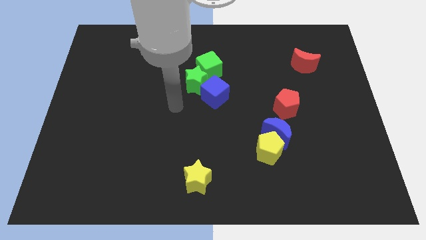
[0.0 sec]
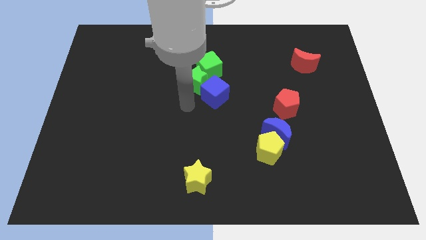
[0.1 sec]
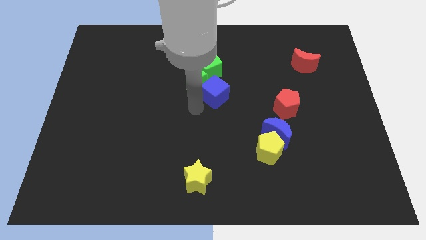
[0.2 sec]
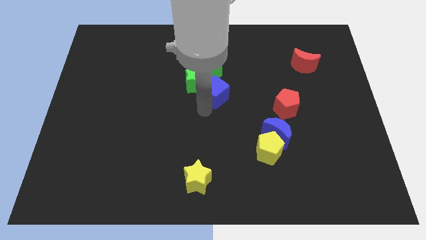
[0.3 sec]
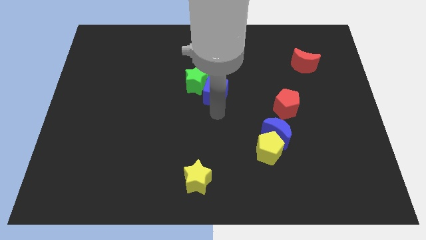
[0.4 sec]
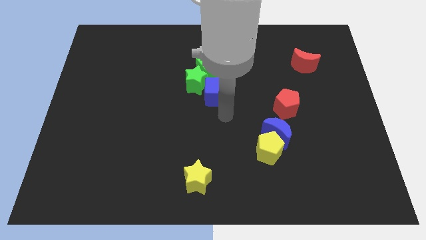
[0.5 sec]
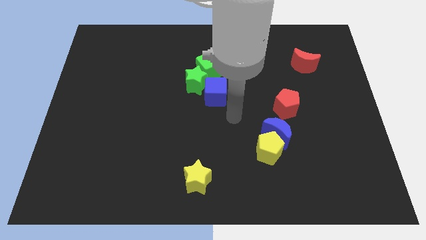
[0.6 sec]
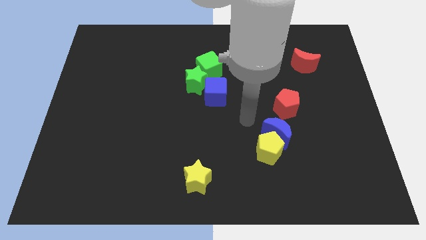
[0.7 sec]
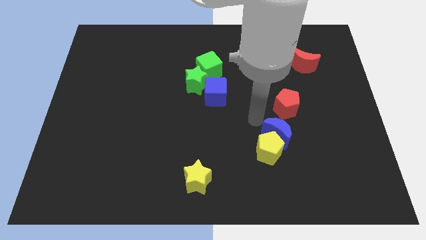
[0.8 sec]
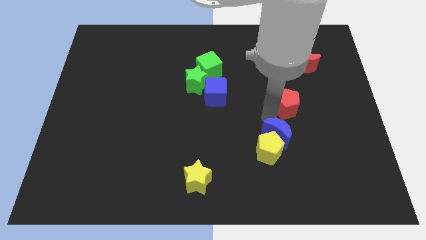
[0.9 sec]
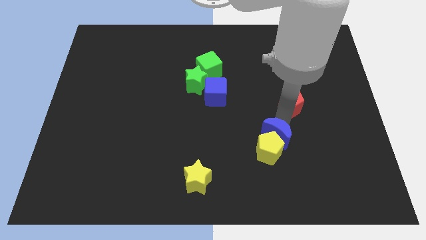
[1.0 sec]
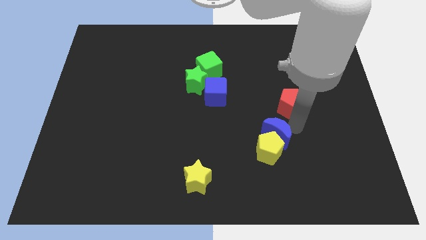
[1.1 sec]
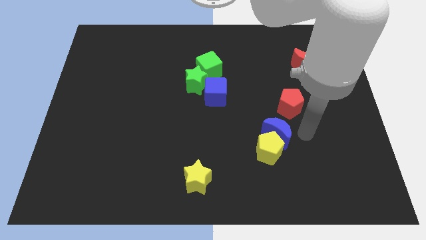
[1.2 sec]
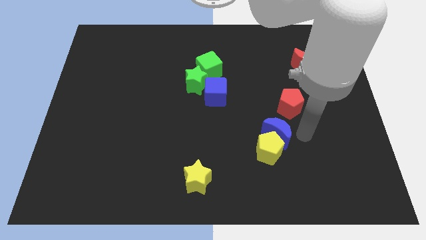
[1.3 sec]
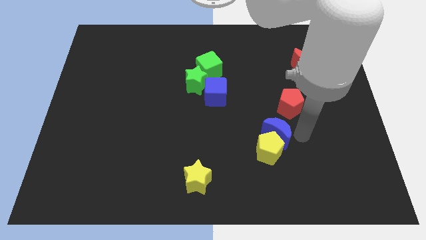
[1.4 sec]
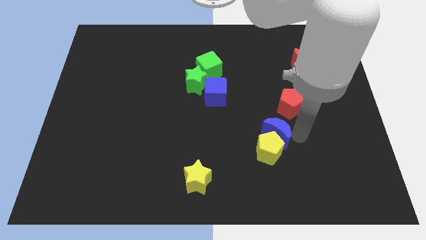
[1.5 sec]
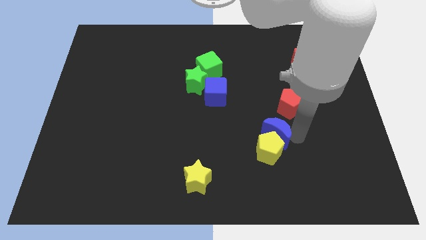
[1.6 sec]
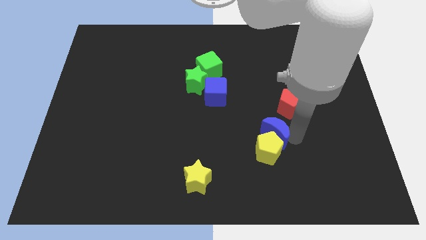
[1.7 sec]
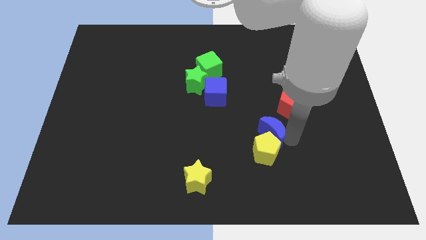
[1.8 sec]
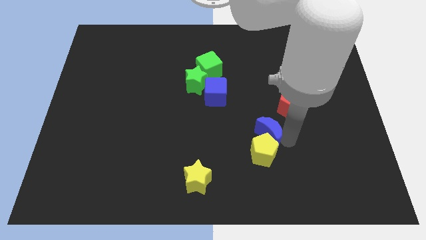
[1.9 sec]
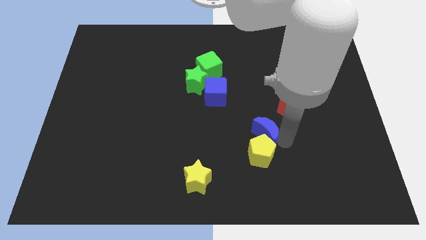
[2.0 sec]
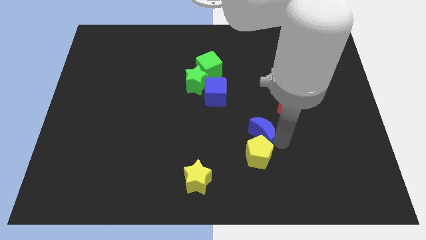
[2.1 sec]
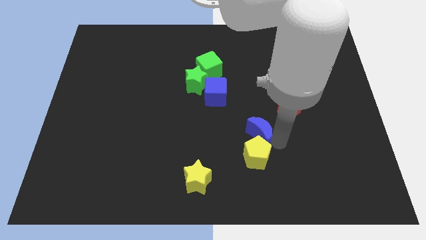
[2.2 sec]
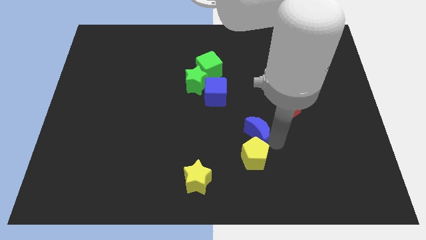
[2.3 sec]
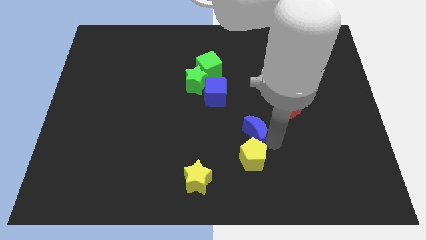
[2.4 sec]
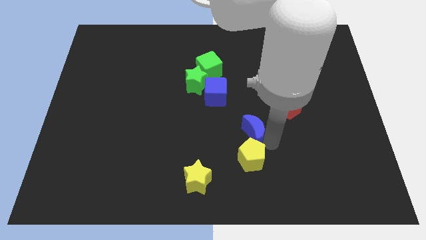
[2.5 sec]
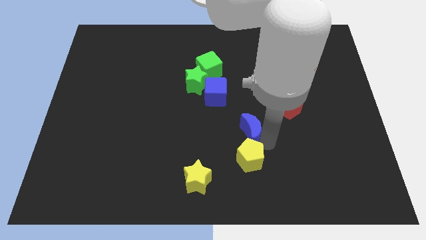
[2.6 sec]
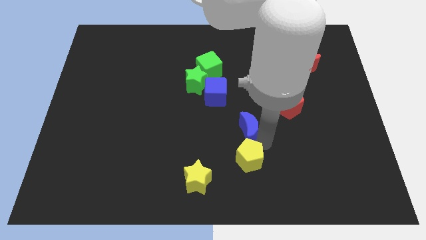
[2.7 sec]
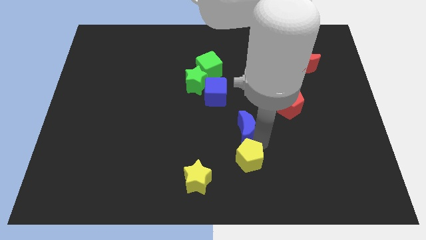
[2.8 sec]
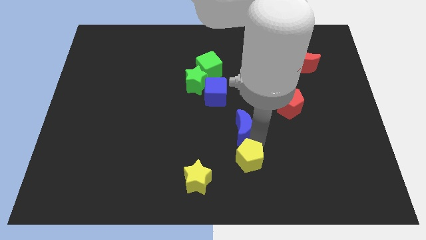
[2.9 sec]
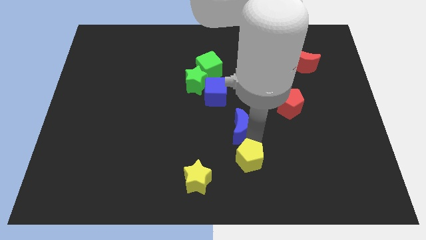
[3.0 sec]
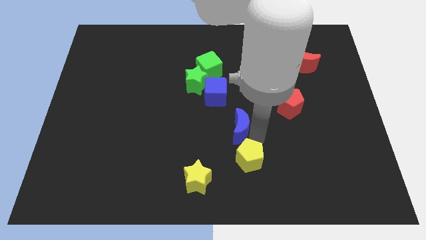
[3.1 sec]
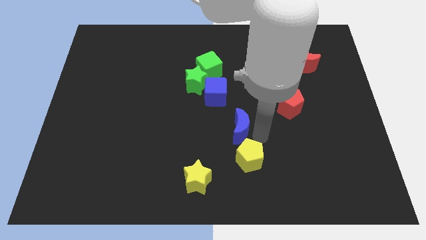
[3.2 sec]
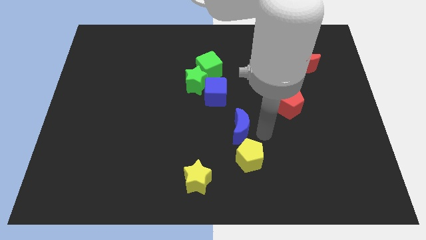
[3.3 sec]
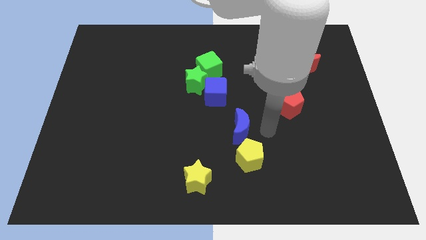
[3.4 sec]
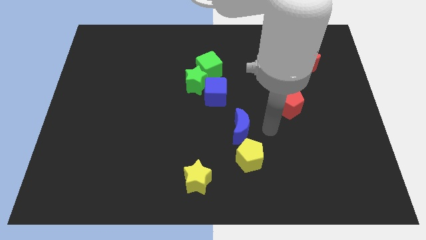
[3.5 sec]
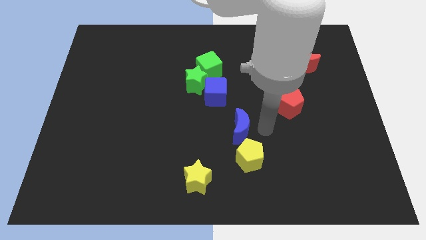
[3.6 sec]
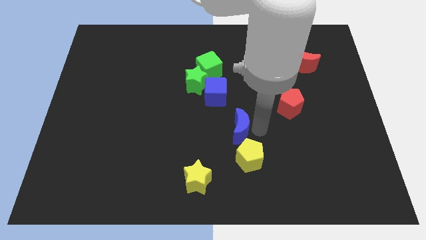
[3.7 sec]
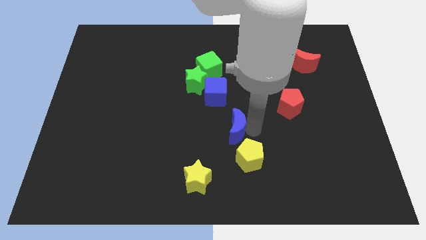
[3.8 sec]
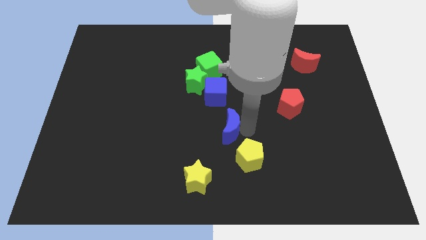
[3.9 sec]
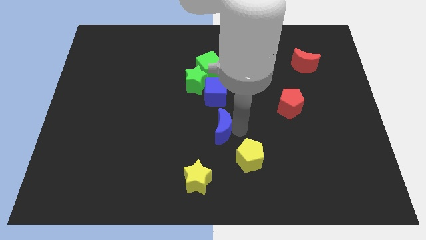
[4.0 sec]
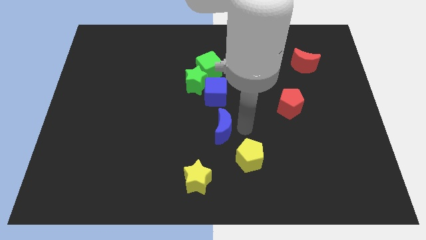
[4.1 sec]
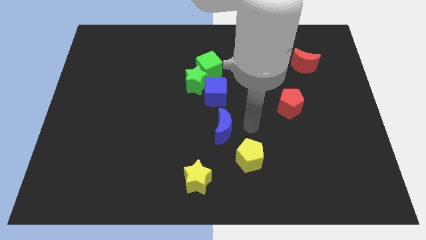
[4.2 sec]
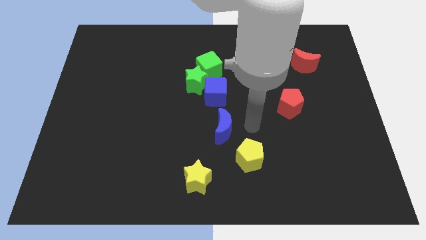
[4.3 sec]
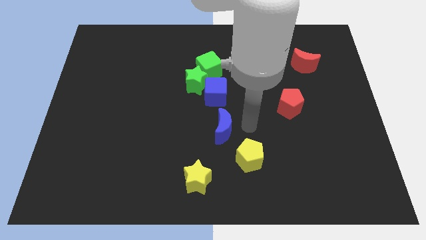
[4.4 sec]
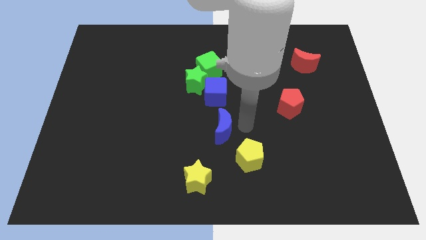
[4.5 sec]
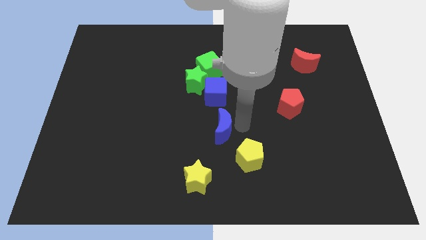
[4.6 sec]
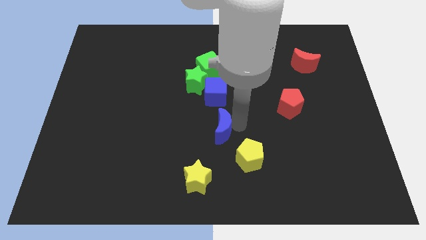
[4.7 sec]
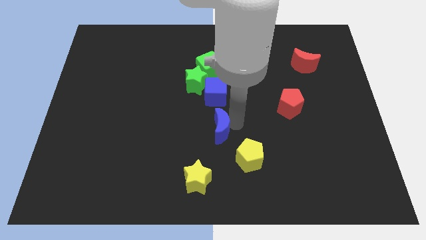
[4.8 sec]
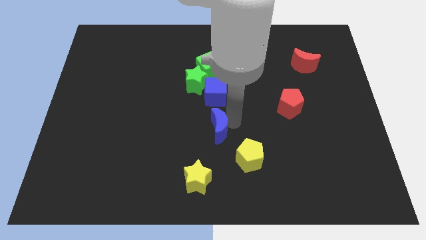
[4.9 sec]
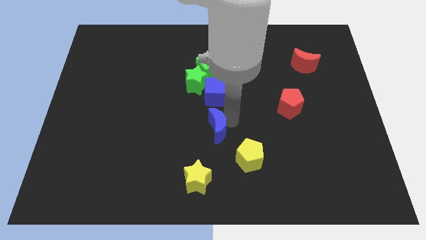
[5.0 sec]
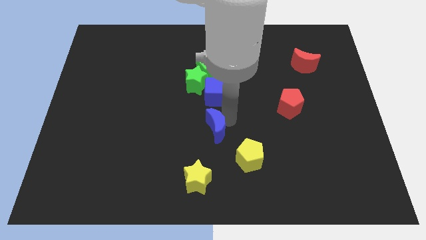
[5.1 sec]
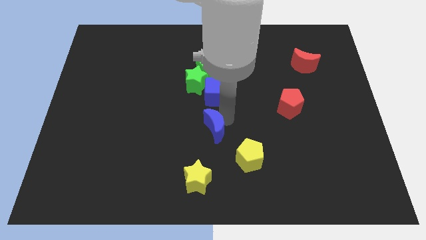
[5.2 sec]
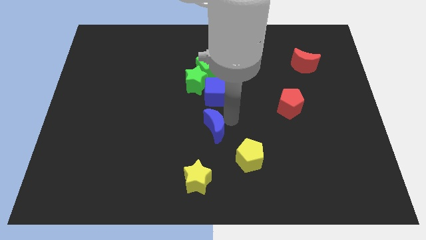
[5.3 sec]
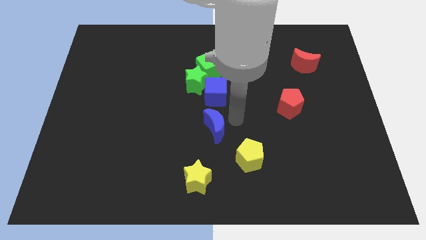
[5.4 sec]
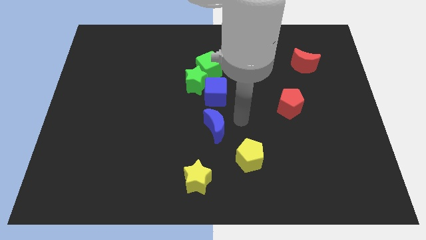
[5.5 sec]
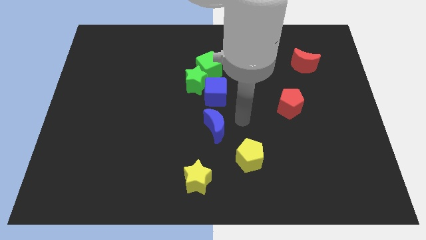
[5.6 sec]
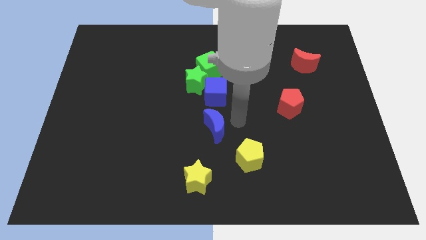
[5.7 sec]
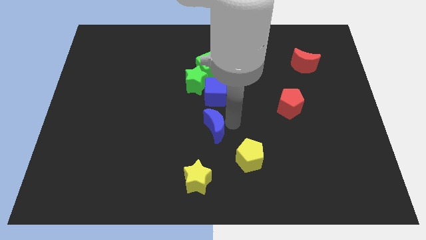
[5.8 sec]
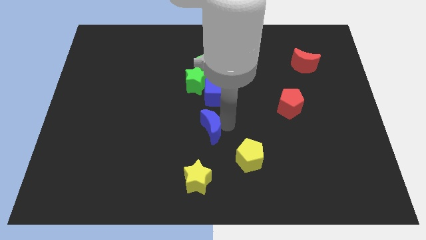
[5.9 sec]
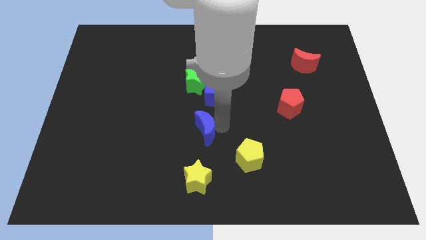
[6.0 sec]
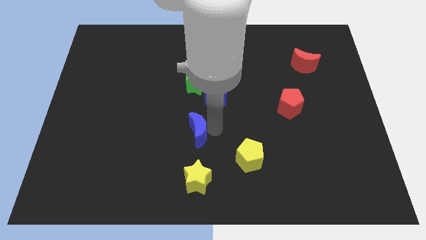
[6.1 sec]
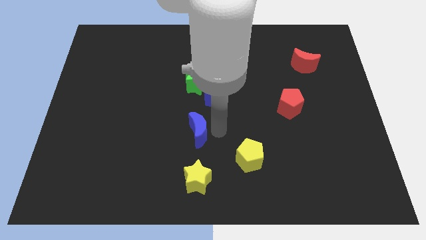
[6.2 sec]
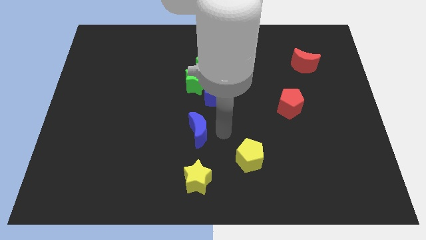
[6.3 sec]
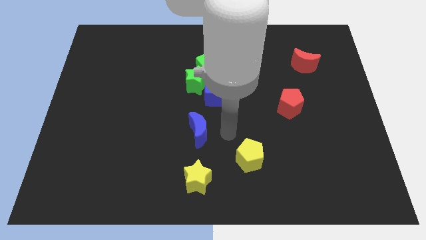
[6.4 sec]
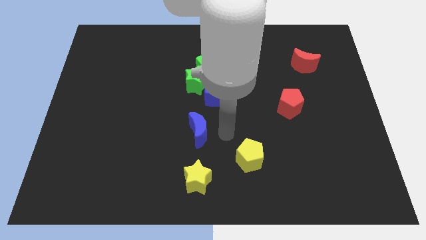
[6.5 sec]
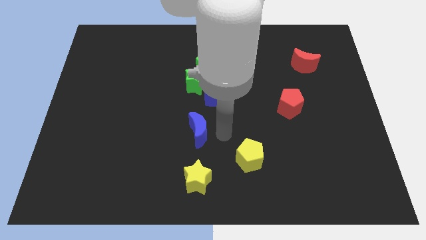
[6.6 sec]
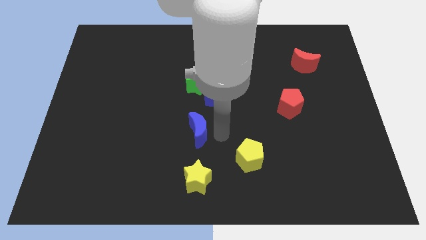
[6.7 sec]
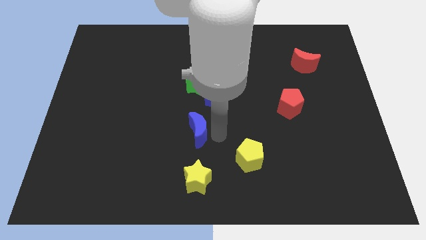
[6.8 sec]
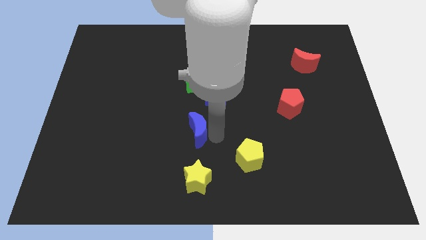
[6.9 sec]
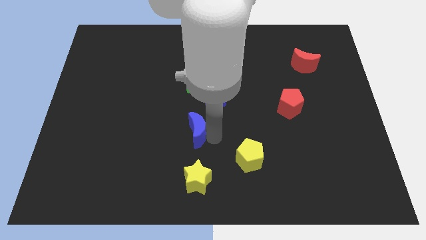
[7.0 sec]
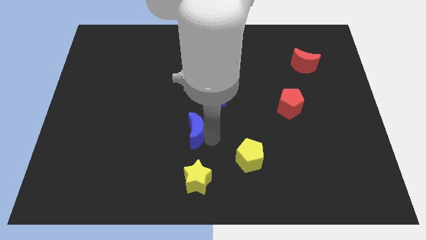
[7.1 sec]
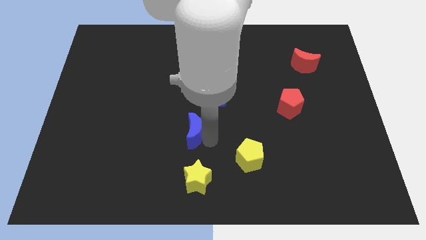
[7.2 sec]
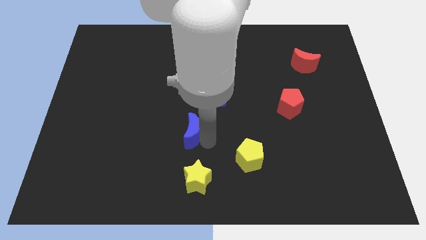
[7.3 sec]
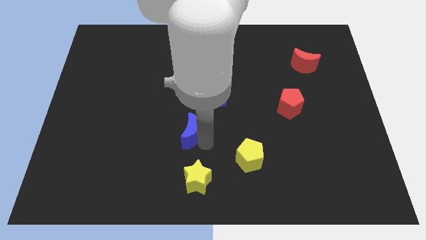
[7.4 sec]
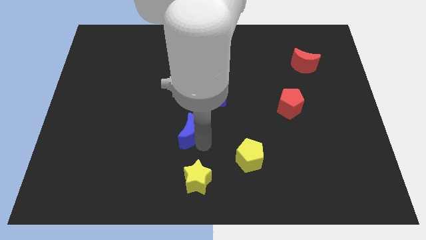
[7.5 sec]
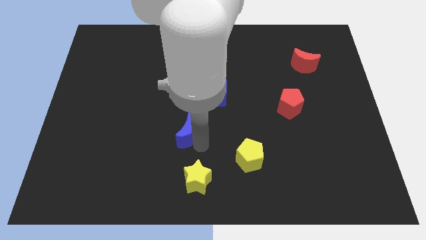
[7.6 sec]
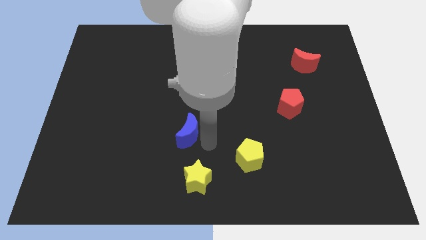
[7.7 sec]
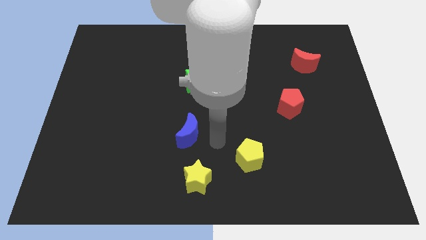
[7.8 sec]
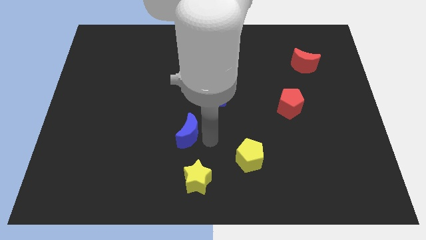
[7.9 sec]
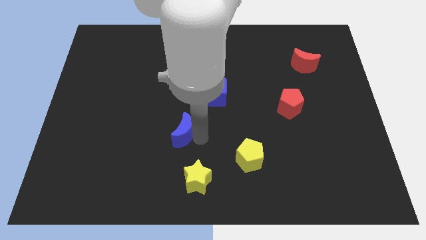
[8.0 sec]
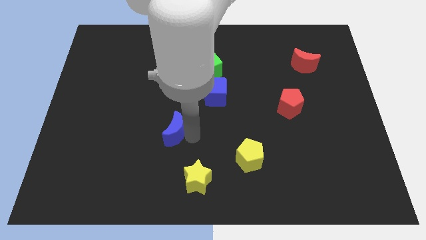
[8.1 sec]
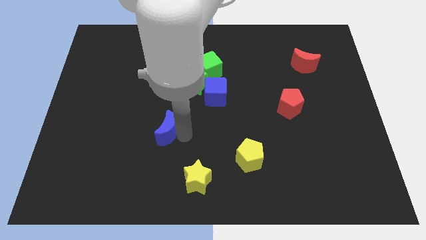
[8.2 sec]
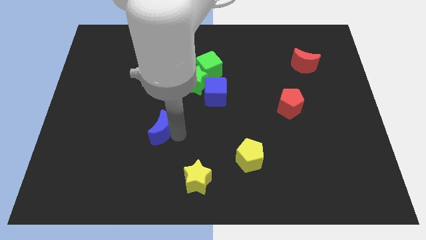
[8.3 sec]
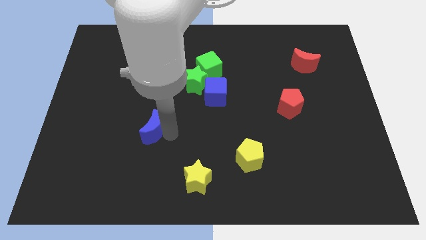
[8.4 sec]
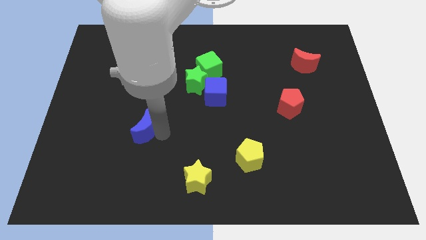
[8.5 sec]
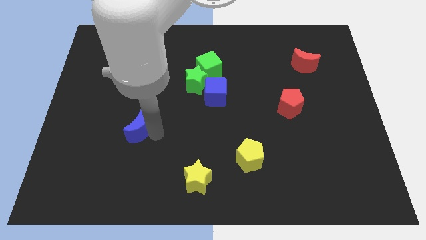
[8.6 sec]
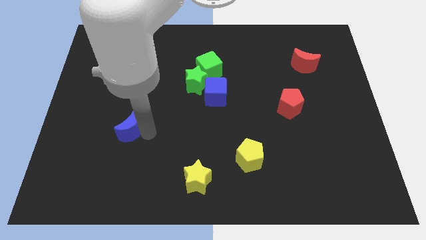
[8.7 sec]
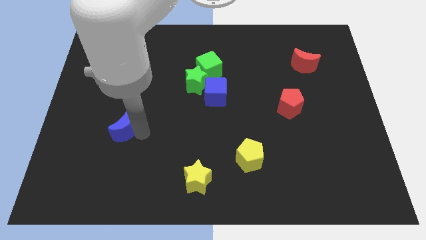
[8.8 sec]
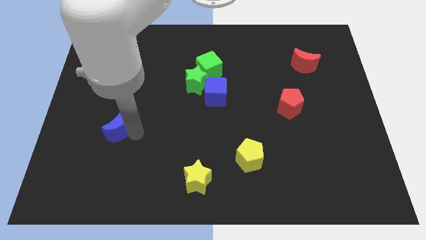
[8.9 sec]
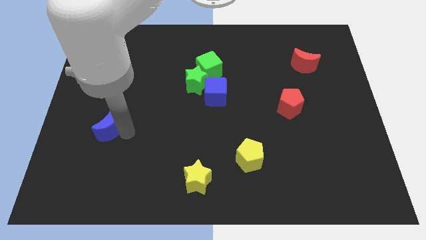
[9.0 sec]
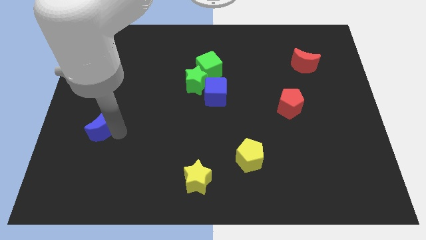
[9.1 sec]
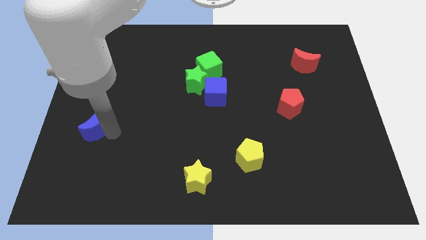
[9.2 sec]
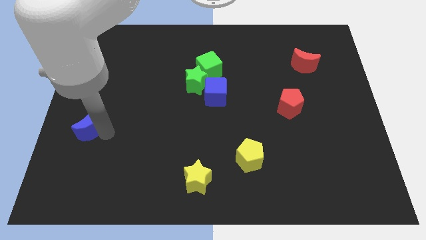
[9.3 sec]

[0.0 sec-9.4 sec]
move the blue moon to the left side of the board
